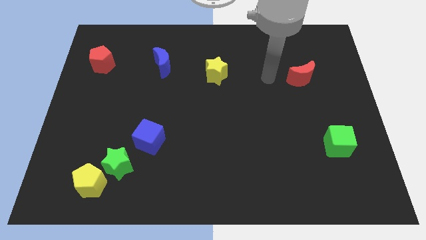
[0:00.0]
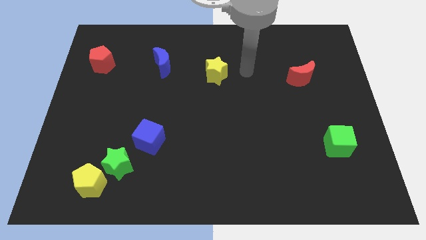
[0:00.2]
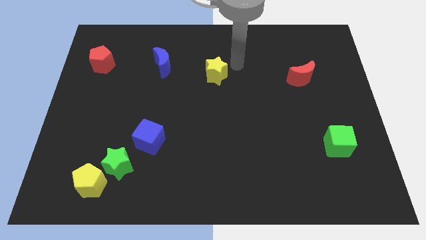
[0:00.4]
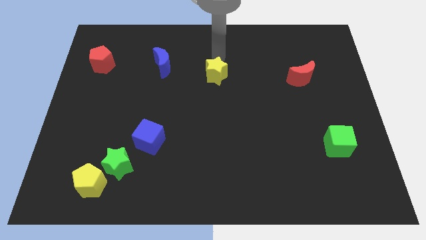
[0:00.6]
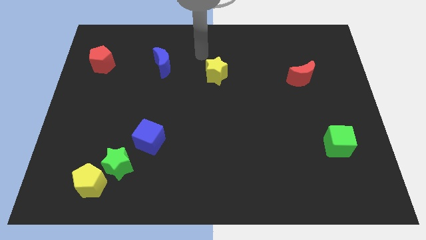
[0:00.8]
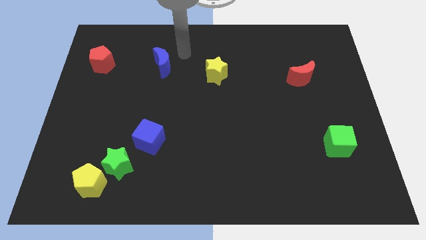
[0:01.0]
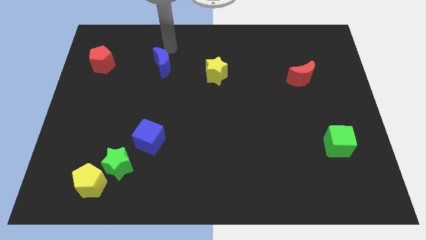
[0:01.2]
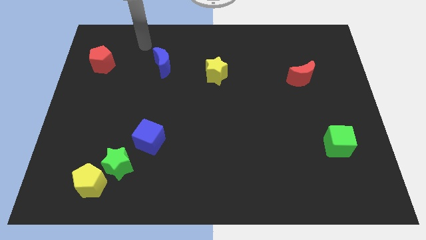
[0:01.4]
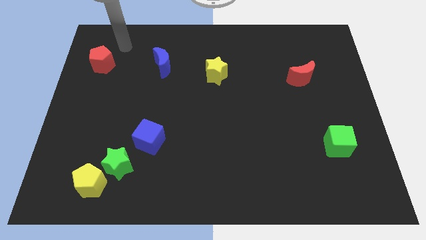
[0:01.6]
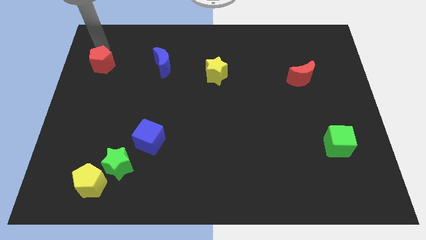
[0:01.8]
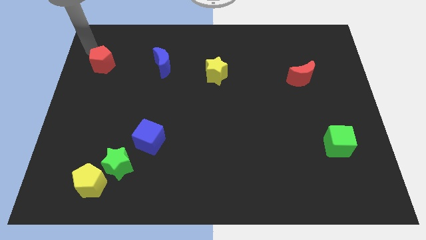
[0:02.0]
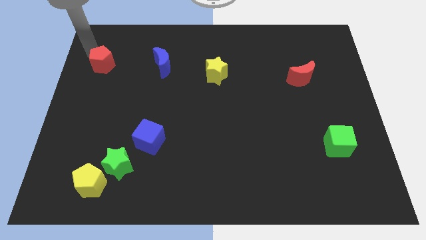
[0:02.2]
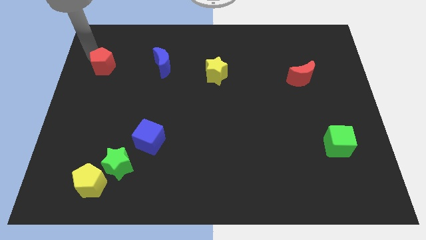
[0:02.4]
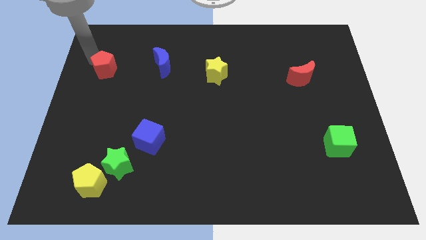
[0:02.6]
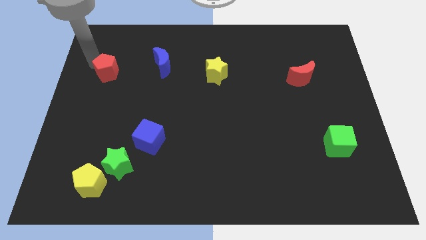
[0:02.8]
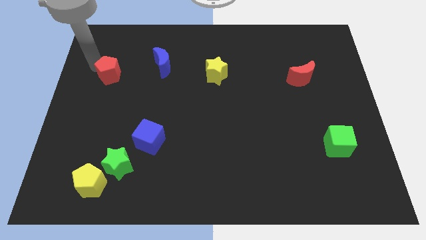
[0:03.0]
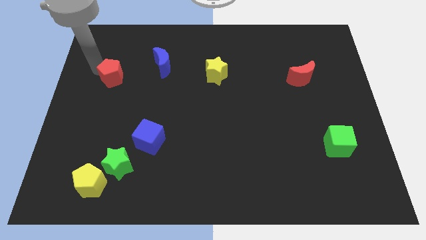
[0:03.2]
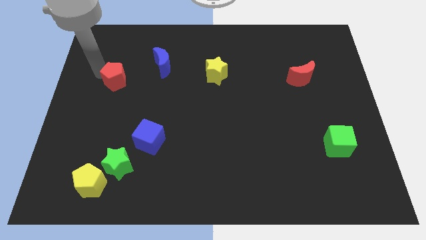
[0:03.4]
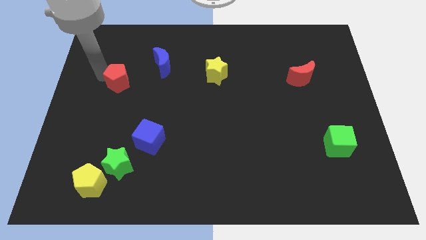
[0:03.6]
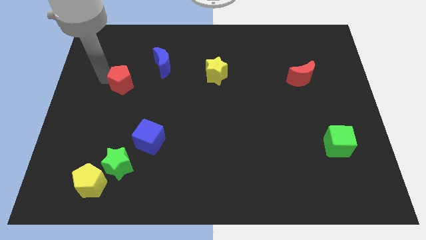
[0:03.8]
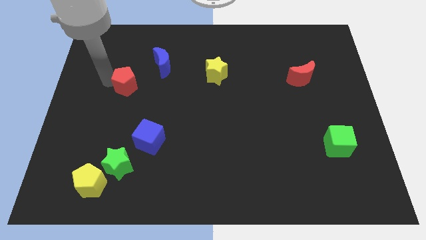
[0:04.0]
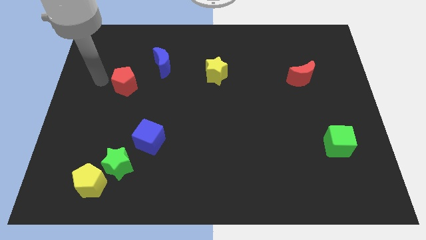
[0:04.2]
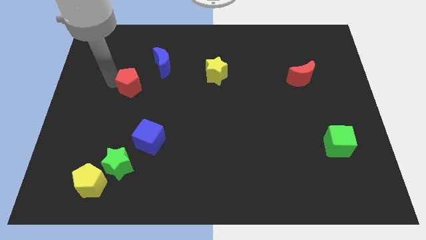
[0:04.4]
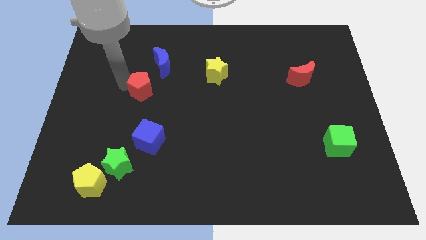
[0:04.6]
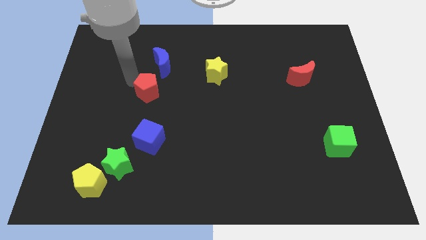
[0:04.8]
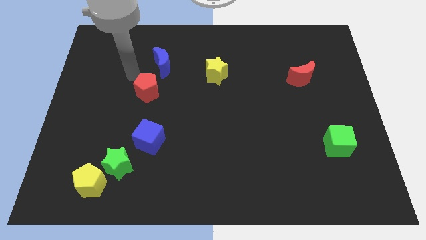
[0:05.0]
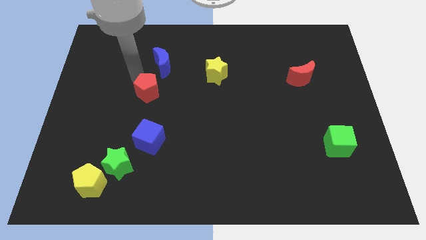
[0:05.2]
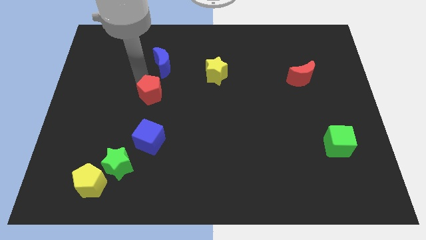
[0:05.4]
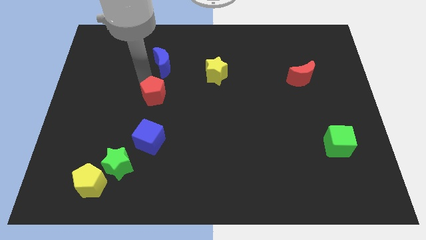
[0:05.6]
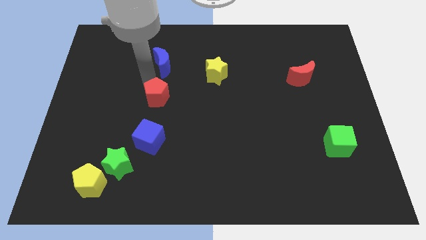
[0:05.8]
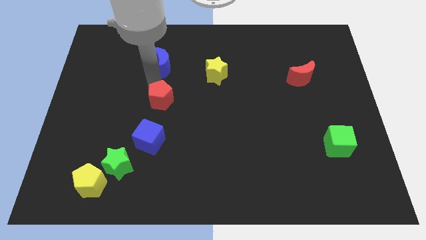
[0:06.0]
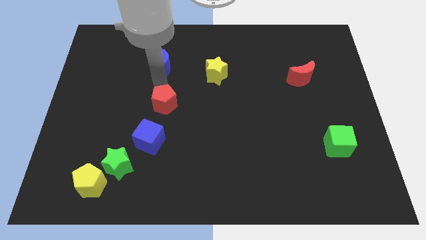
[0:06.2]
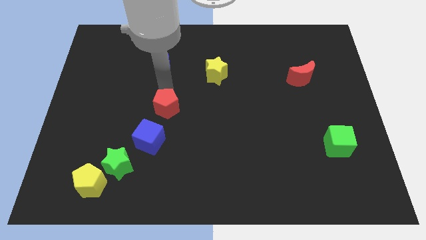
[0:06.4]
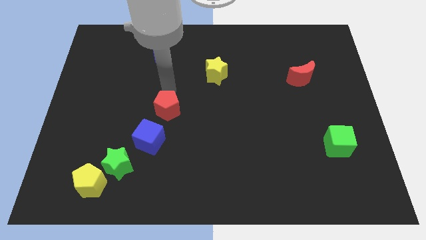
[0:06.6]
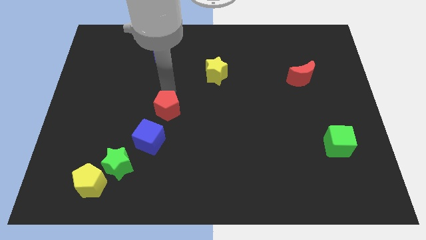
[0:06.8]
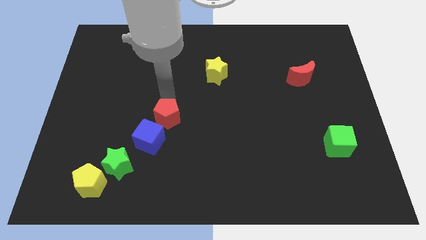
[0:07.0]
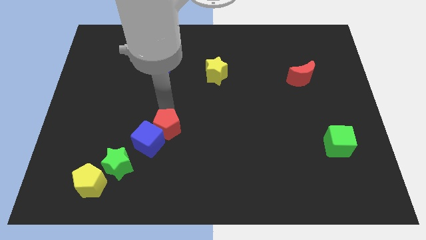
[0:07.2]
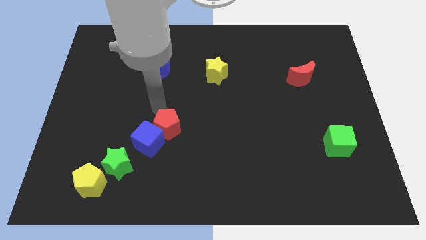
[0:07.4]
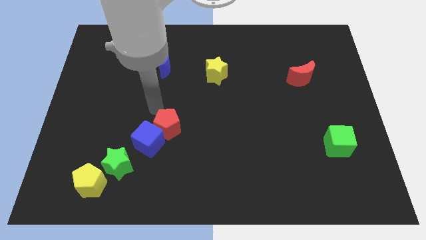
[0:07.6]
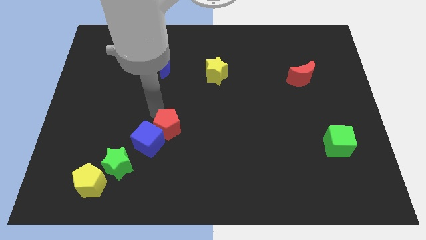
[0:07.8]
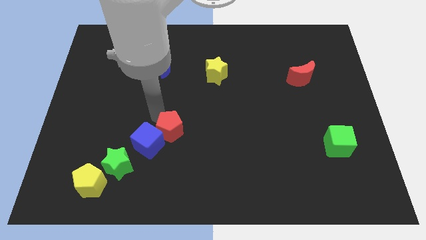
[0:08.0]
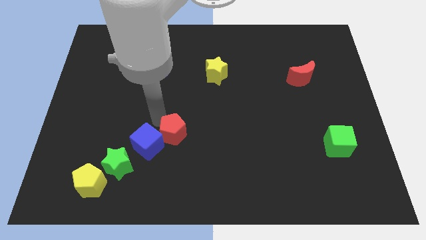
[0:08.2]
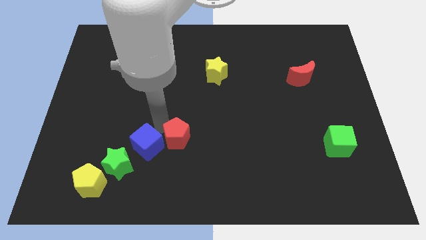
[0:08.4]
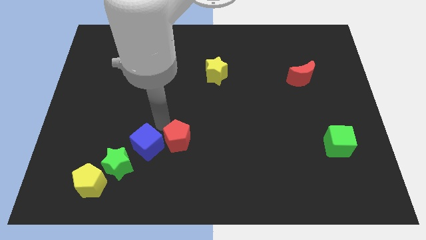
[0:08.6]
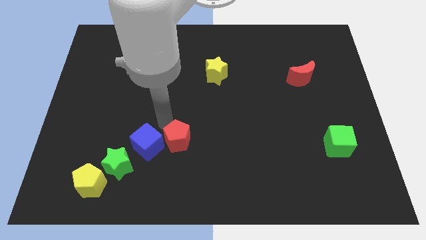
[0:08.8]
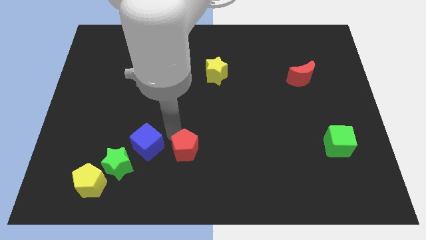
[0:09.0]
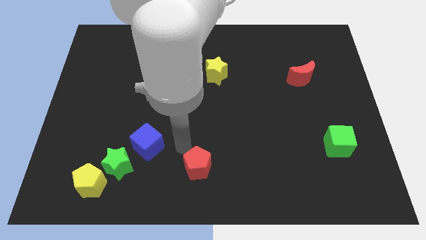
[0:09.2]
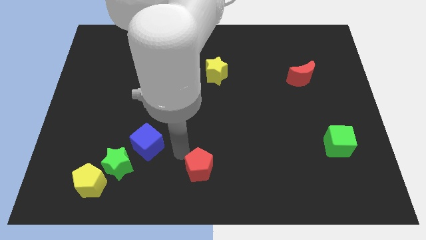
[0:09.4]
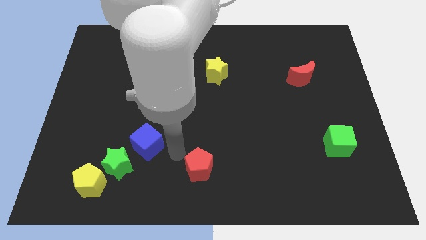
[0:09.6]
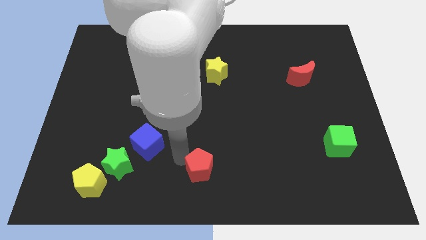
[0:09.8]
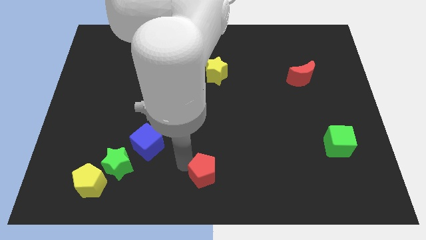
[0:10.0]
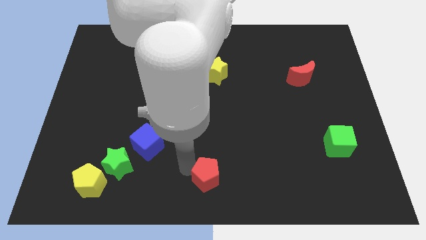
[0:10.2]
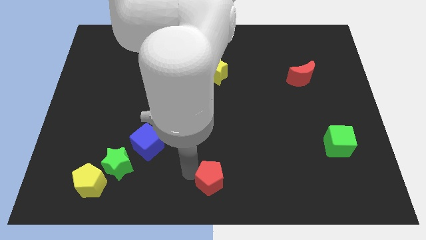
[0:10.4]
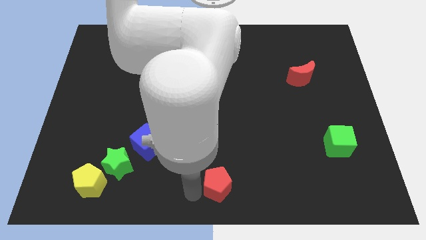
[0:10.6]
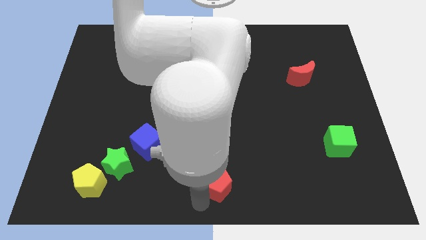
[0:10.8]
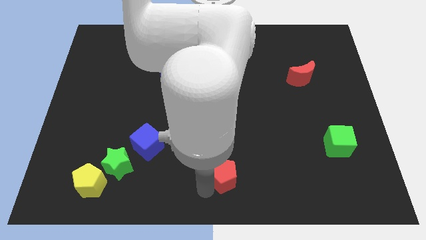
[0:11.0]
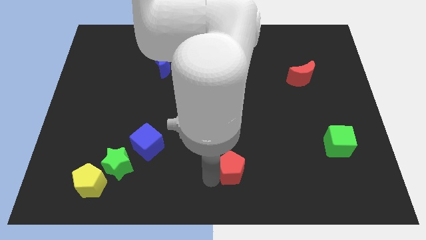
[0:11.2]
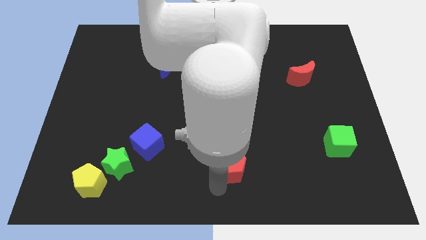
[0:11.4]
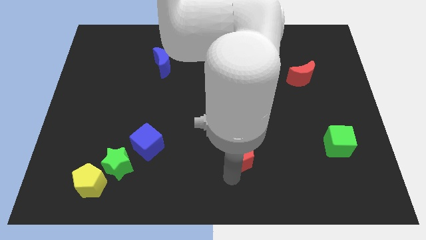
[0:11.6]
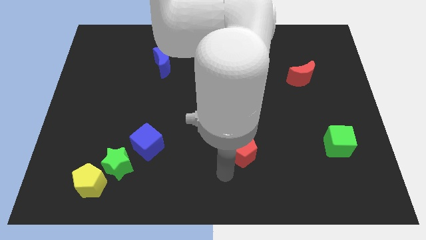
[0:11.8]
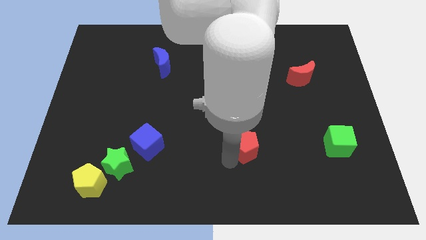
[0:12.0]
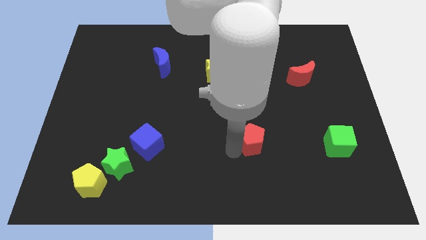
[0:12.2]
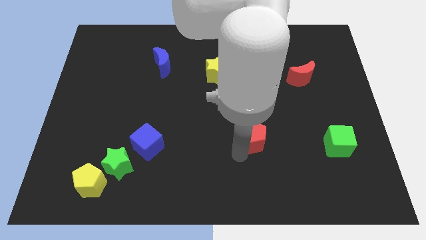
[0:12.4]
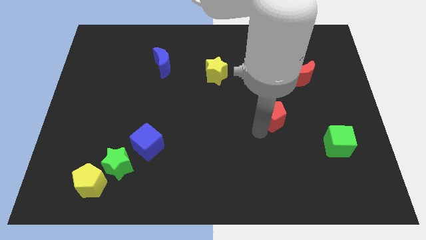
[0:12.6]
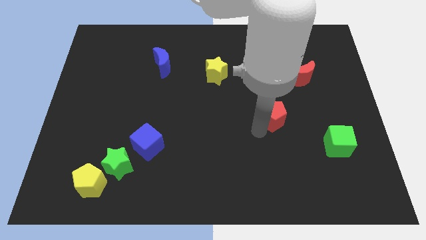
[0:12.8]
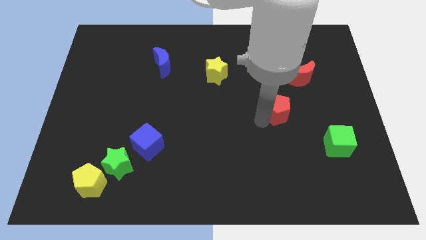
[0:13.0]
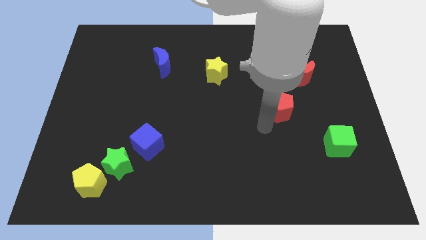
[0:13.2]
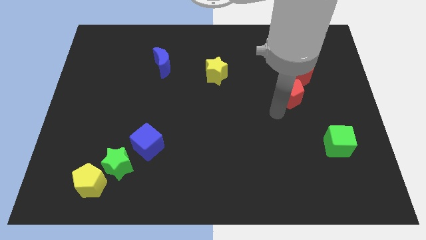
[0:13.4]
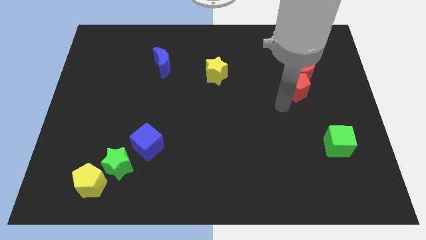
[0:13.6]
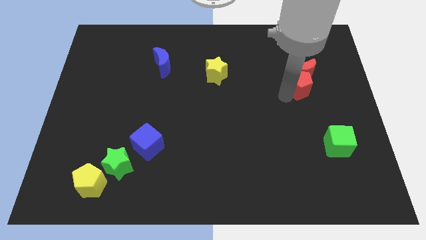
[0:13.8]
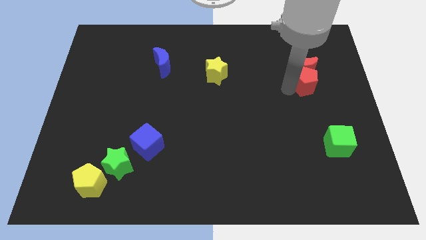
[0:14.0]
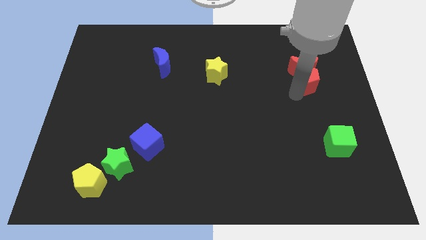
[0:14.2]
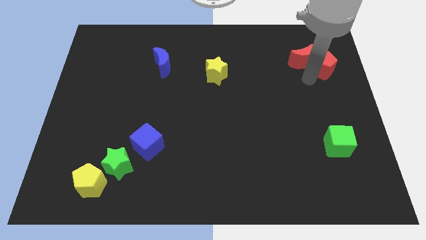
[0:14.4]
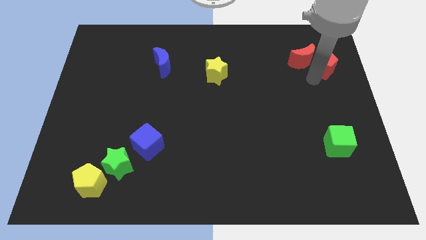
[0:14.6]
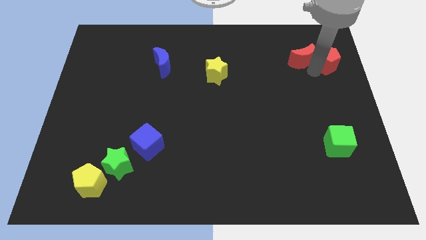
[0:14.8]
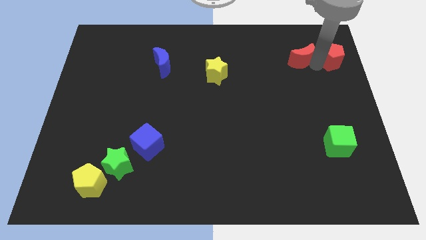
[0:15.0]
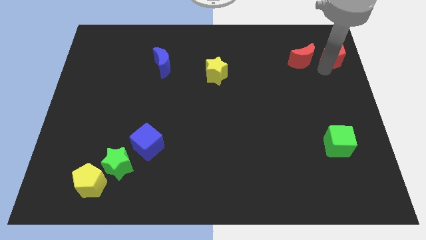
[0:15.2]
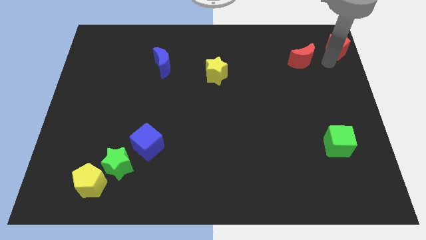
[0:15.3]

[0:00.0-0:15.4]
put the red pentagon to the top right of the board
